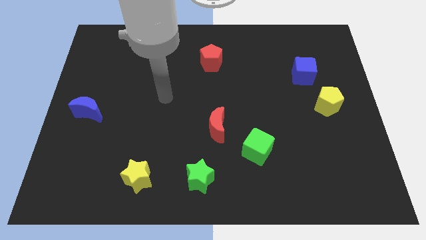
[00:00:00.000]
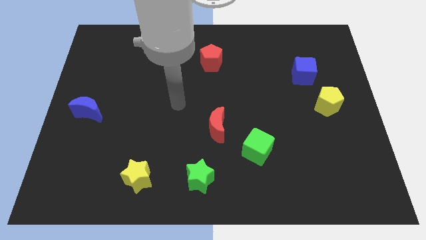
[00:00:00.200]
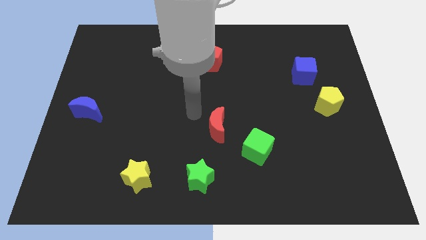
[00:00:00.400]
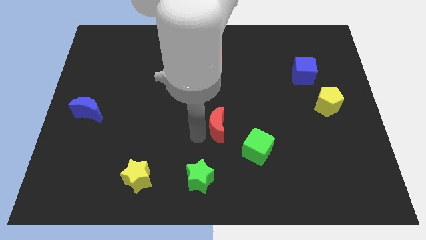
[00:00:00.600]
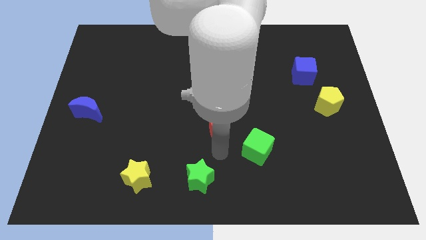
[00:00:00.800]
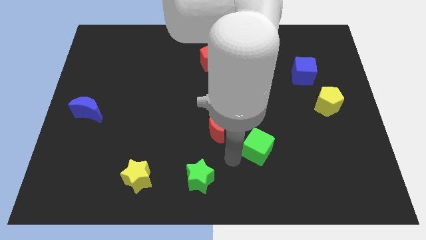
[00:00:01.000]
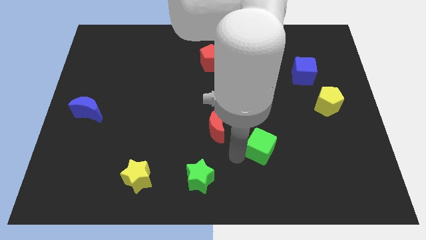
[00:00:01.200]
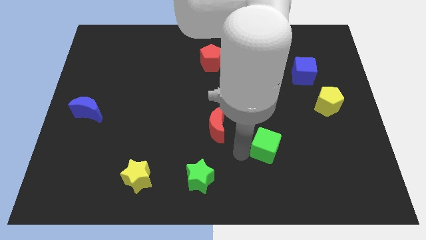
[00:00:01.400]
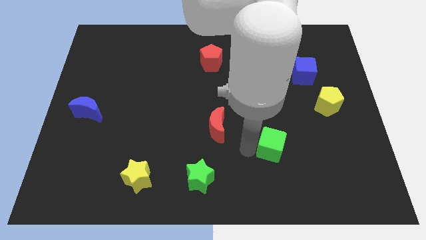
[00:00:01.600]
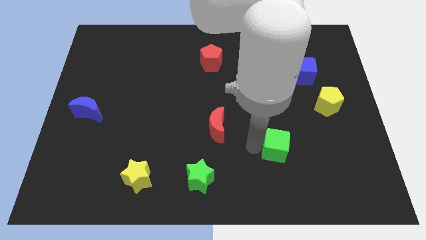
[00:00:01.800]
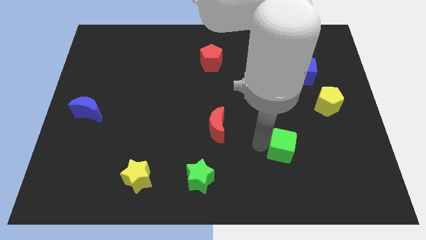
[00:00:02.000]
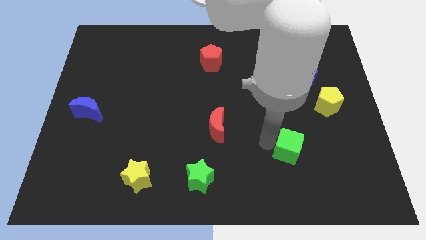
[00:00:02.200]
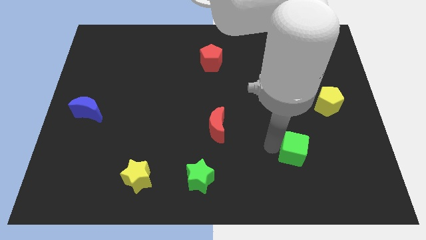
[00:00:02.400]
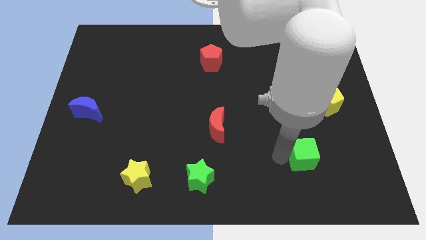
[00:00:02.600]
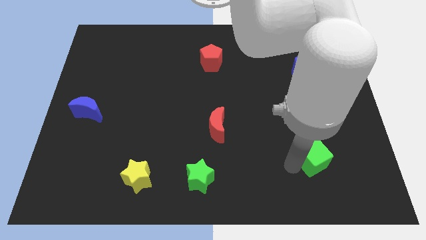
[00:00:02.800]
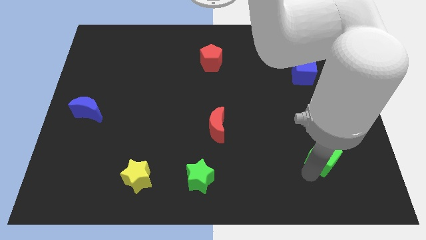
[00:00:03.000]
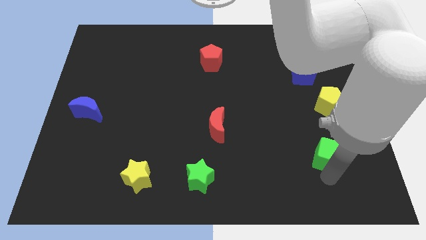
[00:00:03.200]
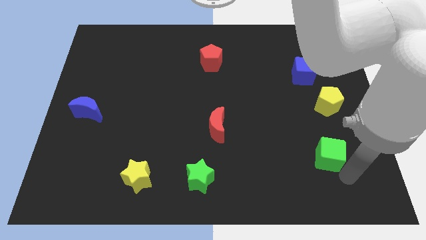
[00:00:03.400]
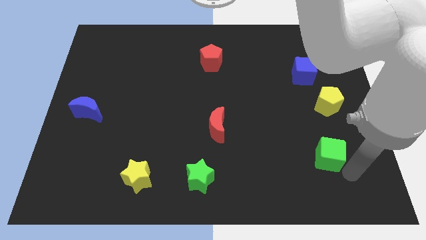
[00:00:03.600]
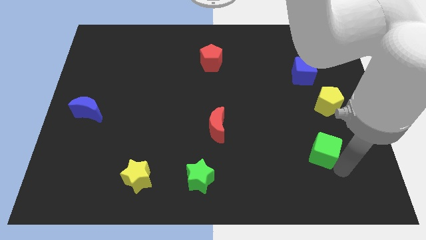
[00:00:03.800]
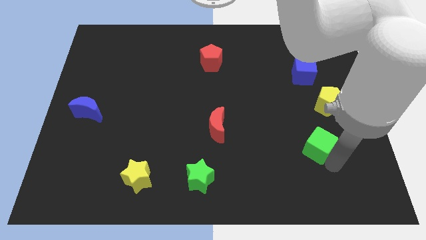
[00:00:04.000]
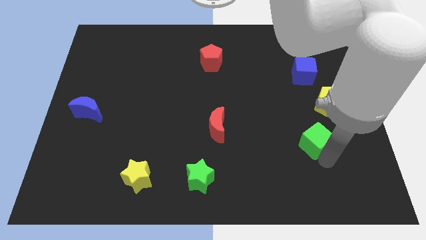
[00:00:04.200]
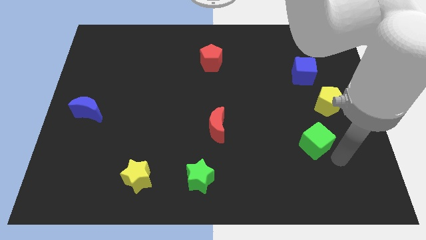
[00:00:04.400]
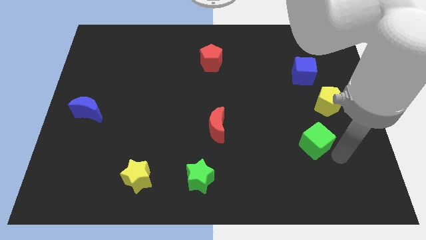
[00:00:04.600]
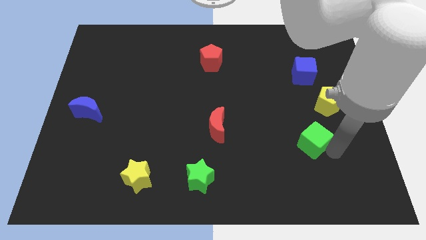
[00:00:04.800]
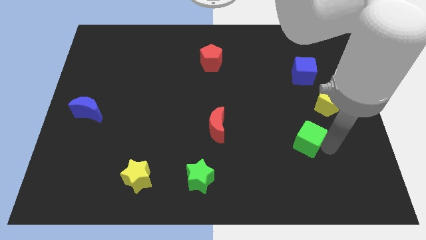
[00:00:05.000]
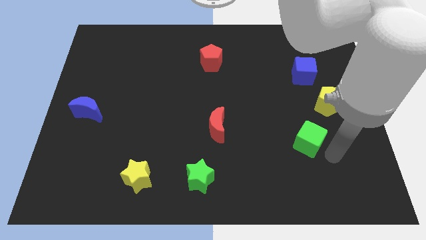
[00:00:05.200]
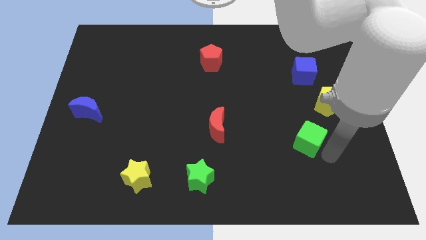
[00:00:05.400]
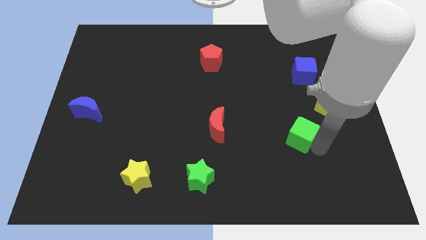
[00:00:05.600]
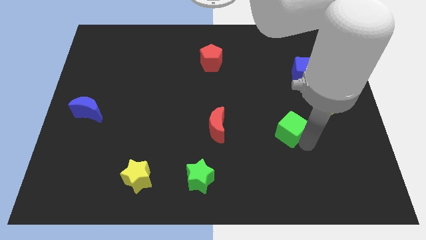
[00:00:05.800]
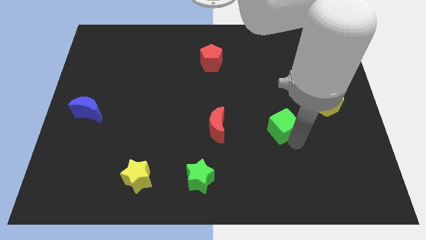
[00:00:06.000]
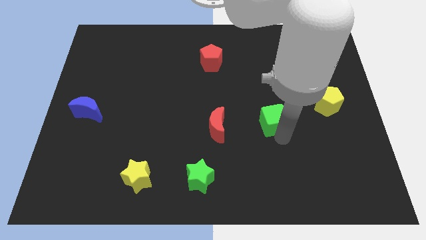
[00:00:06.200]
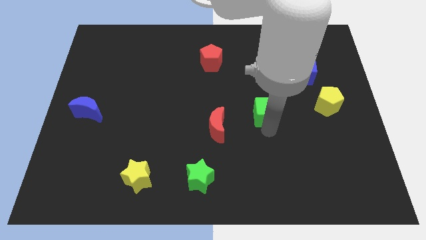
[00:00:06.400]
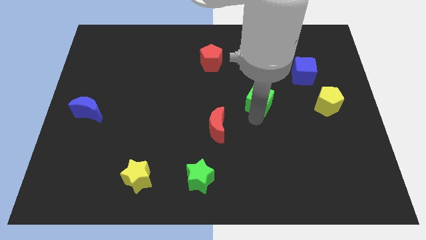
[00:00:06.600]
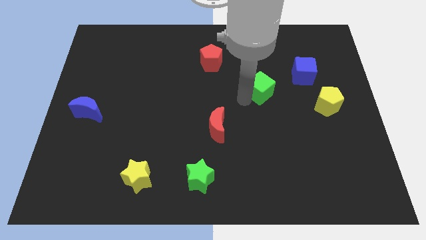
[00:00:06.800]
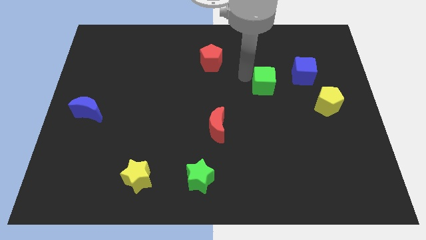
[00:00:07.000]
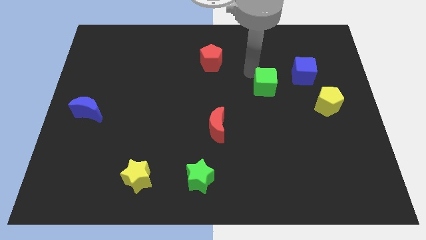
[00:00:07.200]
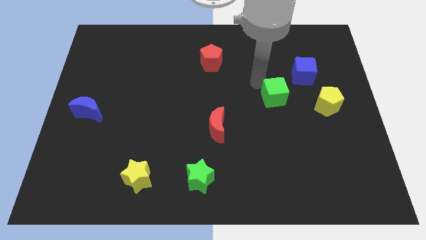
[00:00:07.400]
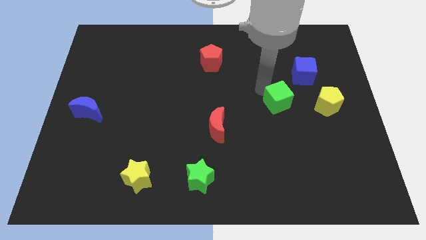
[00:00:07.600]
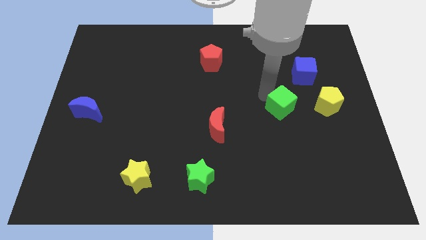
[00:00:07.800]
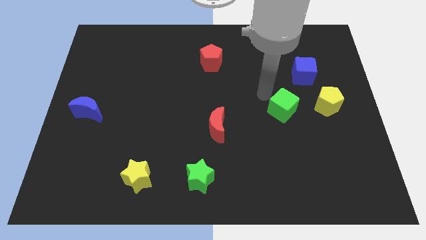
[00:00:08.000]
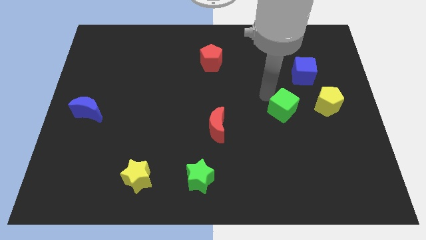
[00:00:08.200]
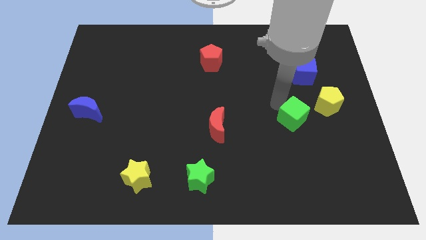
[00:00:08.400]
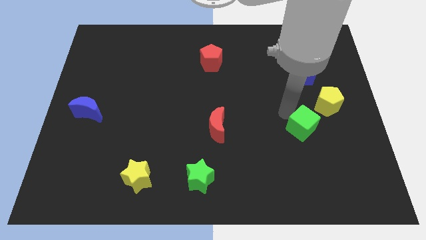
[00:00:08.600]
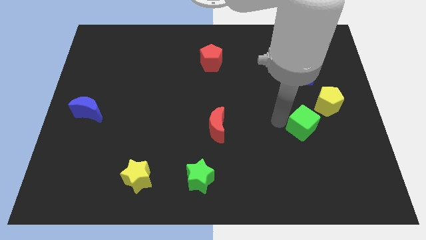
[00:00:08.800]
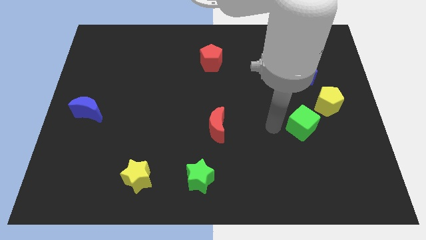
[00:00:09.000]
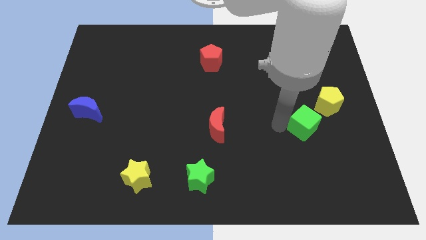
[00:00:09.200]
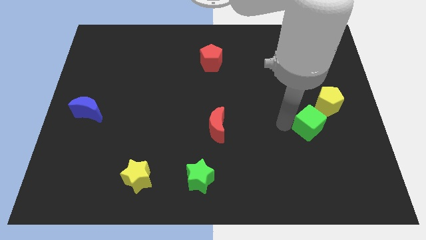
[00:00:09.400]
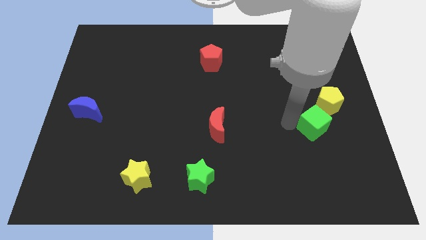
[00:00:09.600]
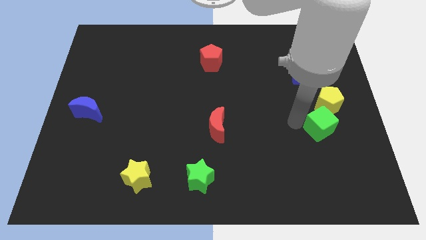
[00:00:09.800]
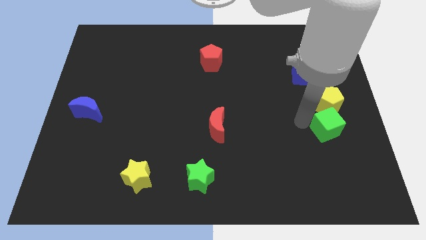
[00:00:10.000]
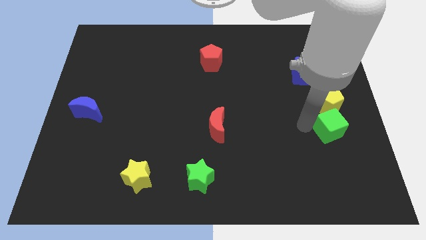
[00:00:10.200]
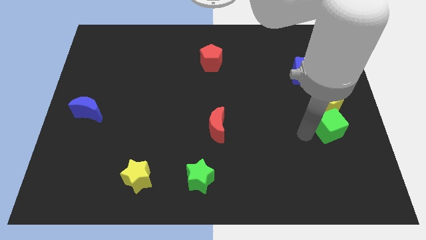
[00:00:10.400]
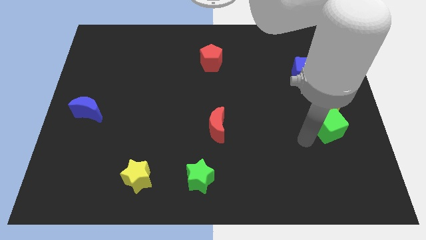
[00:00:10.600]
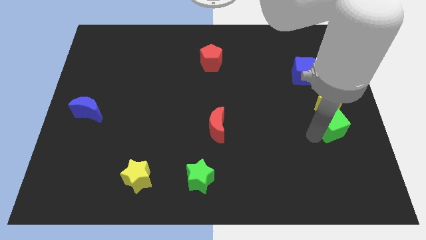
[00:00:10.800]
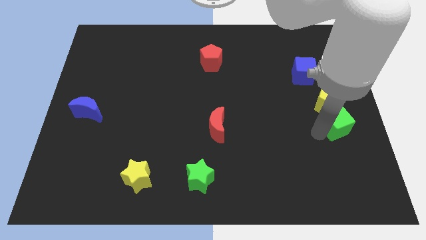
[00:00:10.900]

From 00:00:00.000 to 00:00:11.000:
push the green cube to the right side
